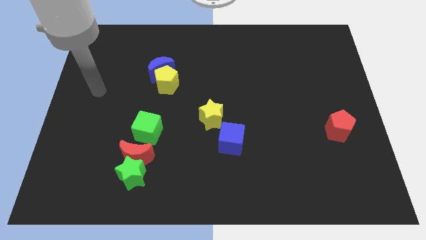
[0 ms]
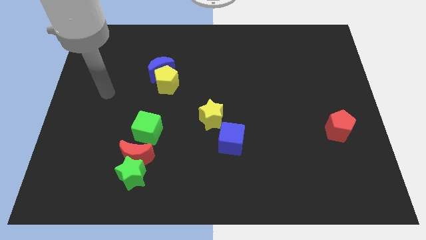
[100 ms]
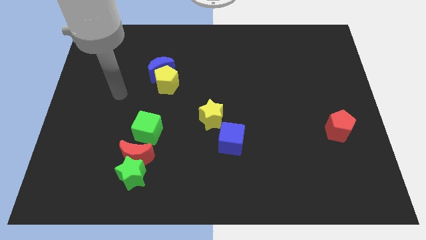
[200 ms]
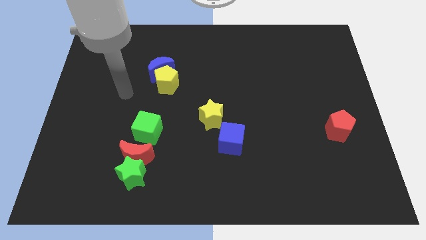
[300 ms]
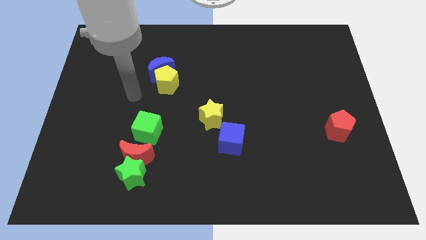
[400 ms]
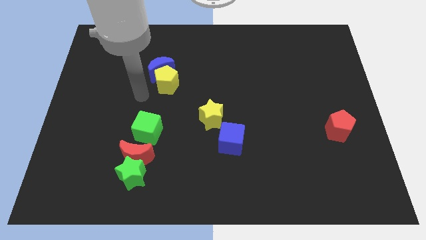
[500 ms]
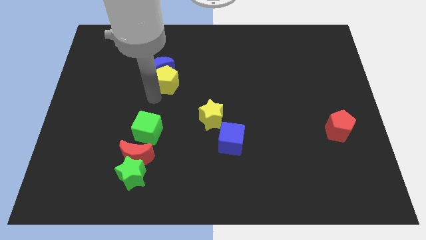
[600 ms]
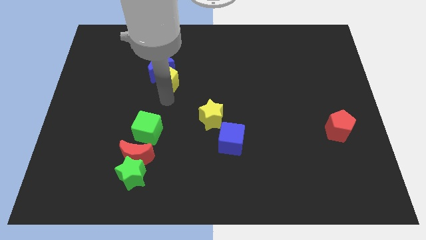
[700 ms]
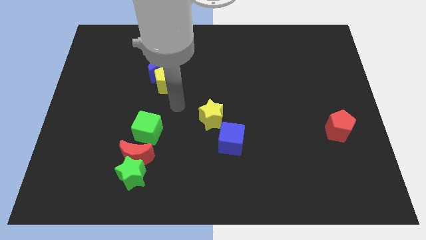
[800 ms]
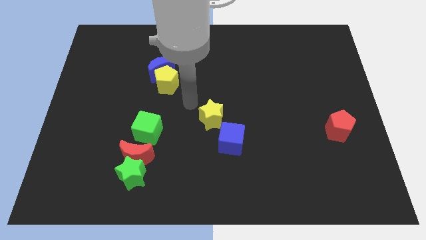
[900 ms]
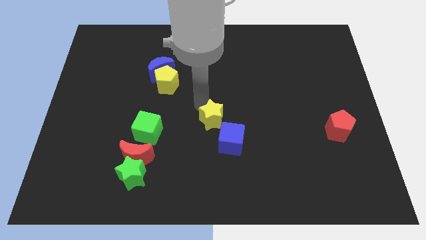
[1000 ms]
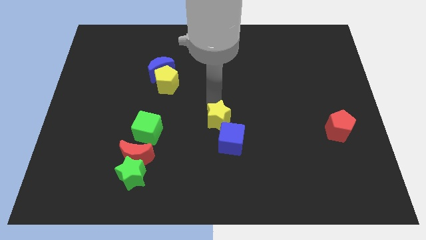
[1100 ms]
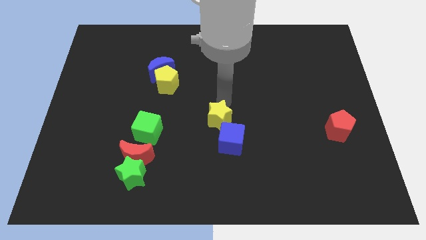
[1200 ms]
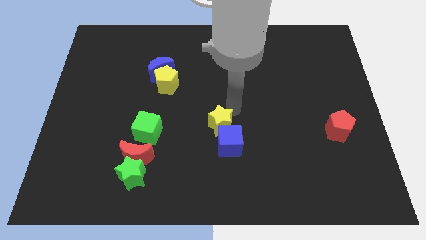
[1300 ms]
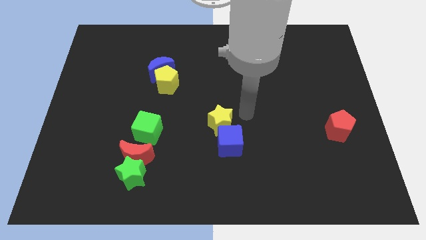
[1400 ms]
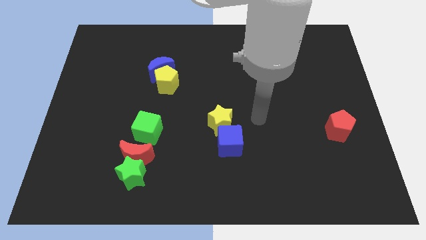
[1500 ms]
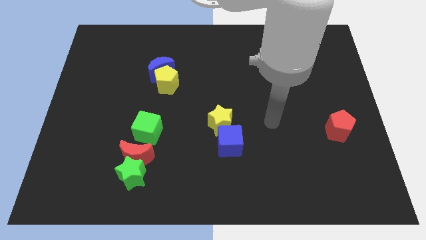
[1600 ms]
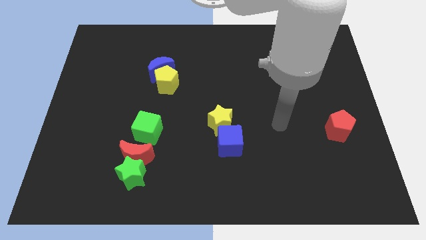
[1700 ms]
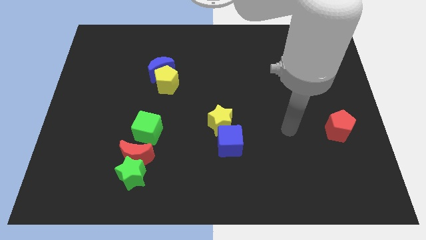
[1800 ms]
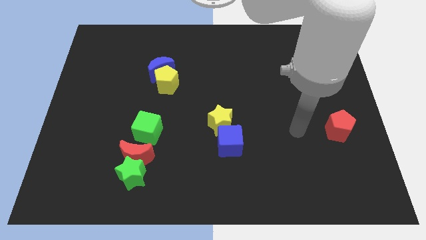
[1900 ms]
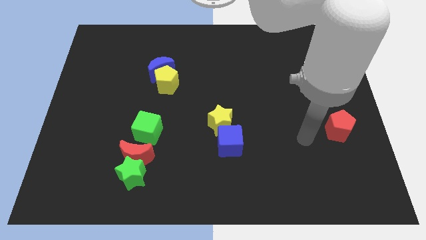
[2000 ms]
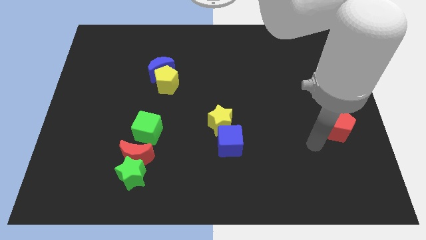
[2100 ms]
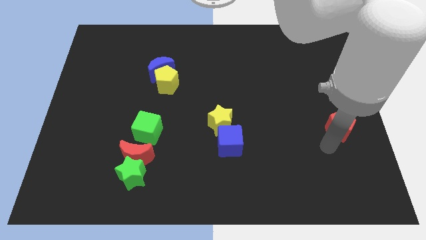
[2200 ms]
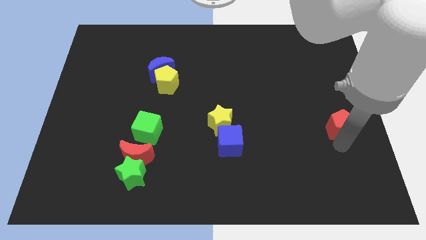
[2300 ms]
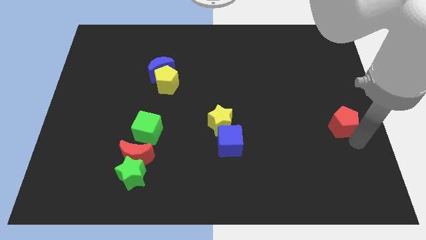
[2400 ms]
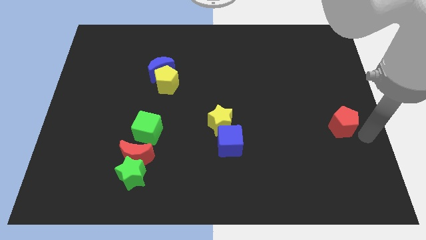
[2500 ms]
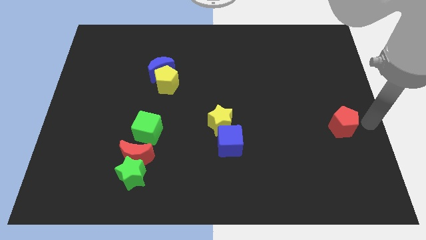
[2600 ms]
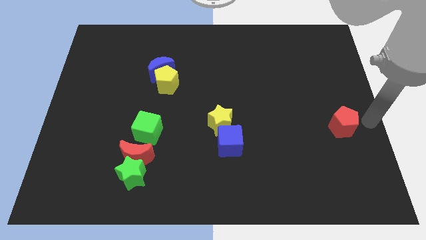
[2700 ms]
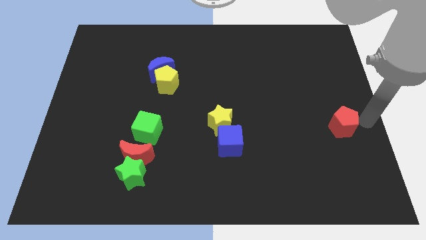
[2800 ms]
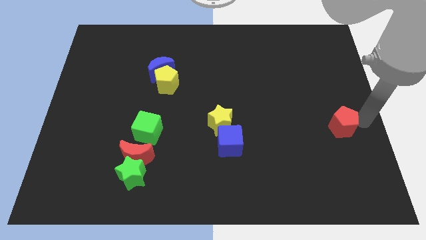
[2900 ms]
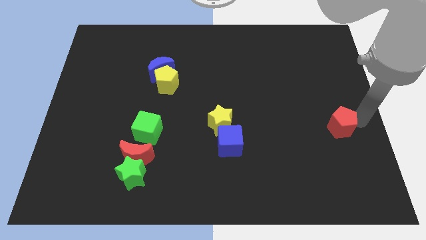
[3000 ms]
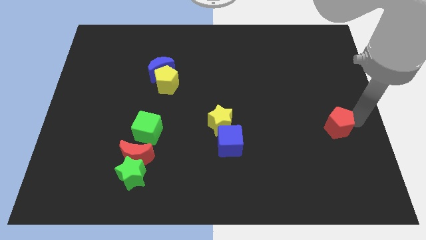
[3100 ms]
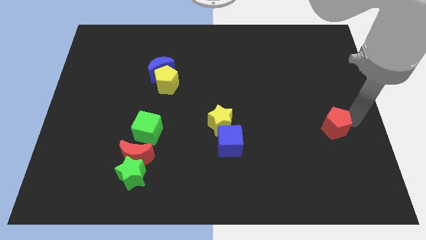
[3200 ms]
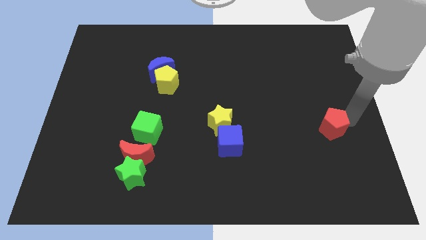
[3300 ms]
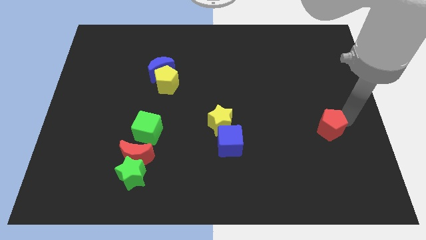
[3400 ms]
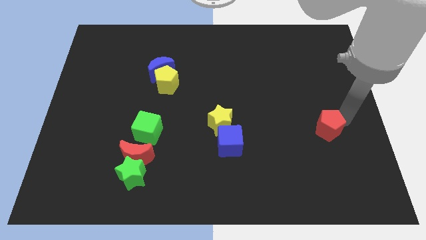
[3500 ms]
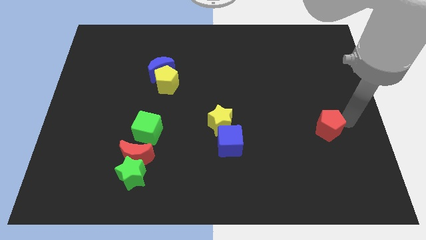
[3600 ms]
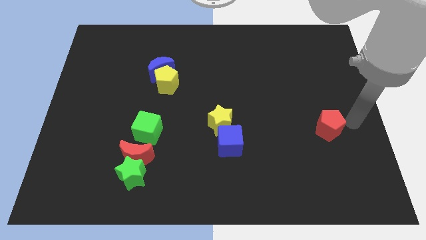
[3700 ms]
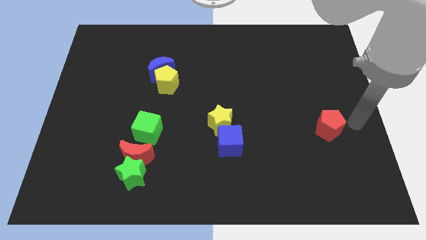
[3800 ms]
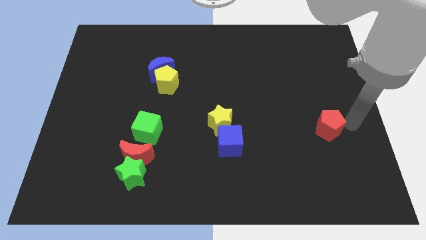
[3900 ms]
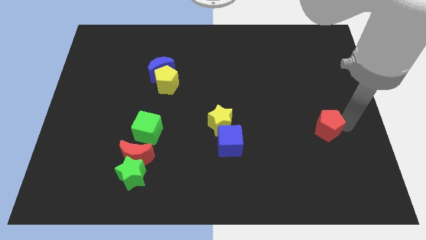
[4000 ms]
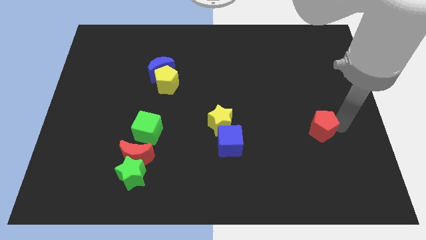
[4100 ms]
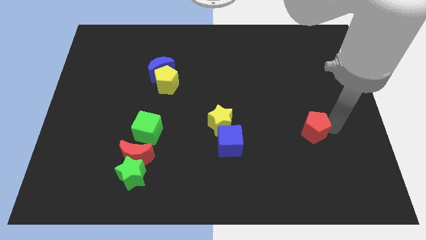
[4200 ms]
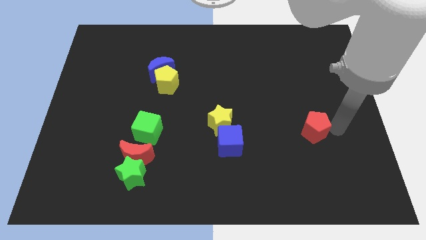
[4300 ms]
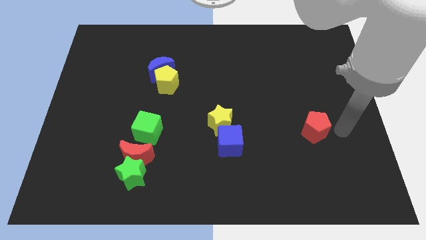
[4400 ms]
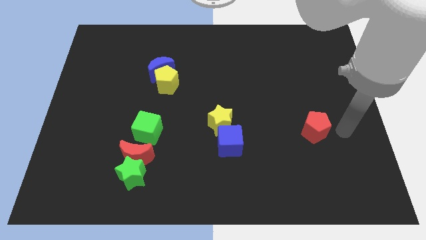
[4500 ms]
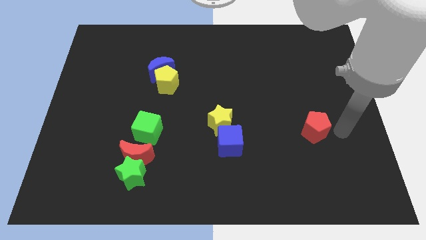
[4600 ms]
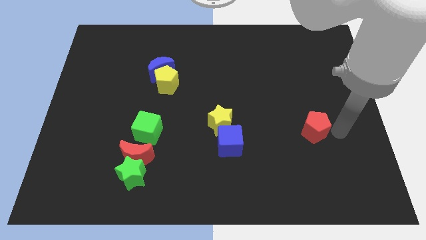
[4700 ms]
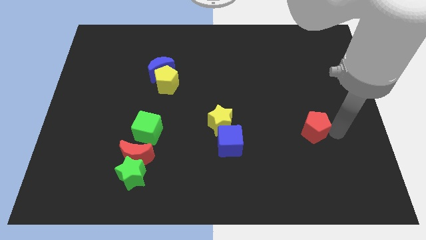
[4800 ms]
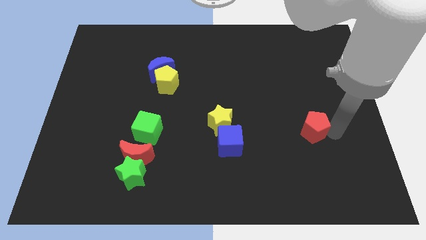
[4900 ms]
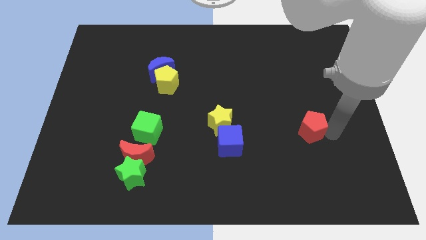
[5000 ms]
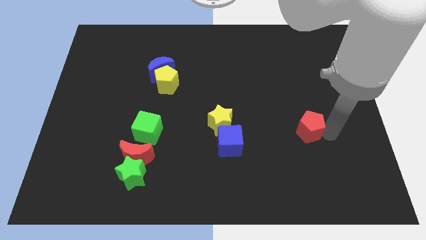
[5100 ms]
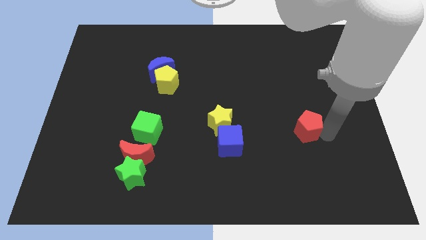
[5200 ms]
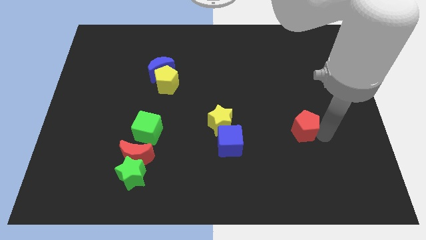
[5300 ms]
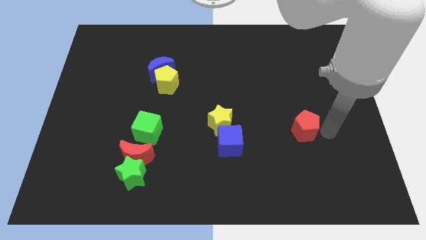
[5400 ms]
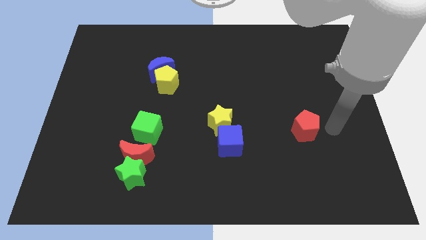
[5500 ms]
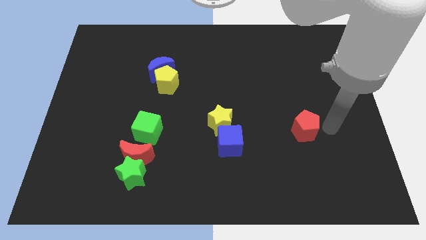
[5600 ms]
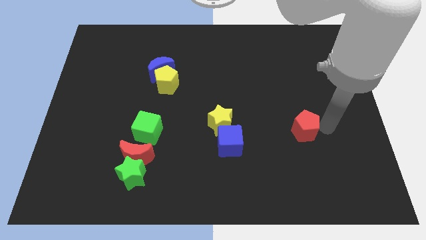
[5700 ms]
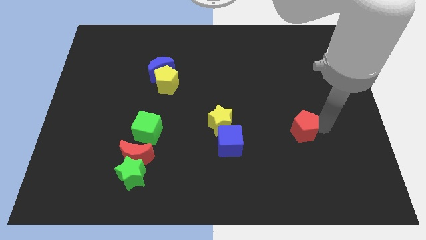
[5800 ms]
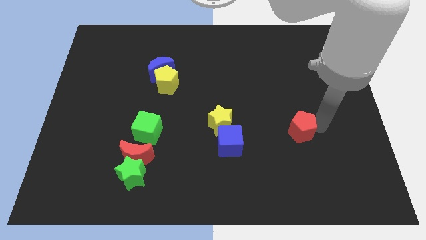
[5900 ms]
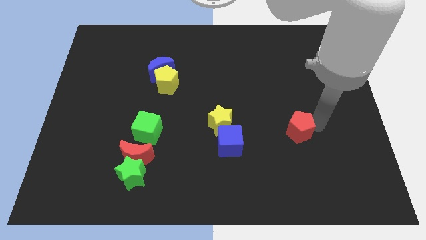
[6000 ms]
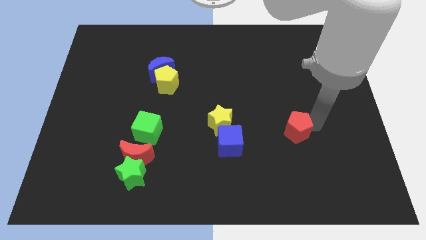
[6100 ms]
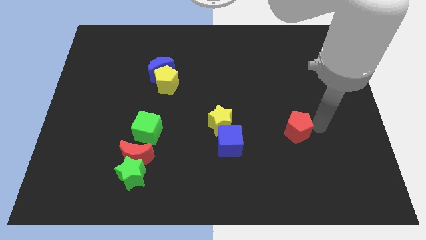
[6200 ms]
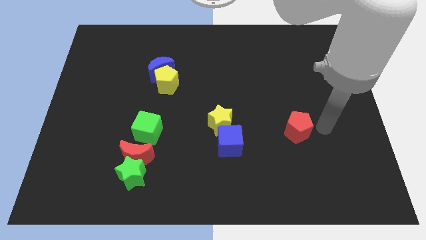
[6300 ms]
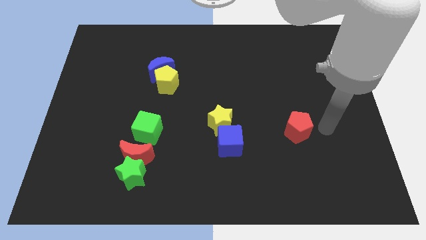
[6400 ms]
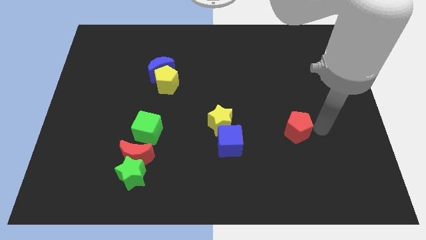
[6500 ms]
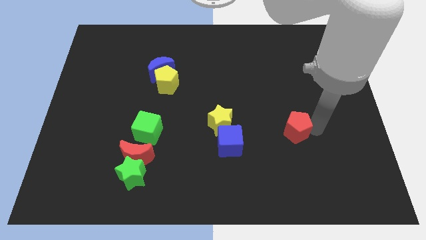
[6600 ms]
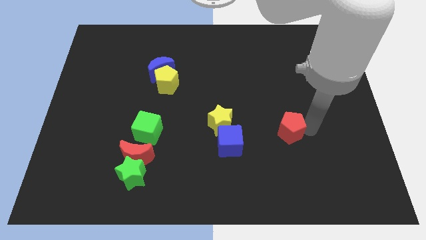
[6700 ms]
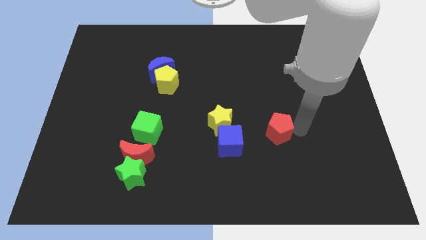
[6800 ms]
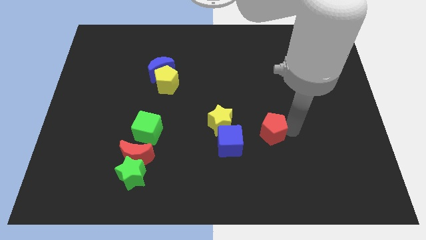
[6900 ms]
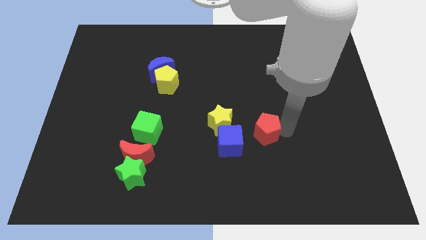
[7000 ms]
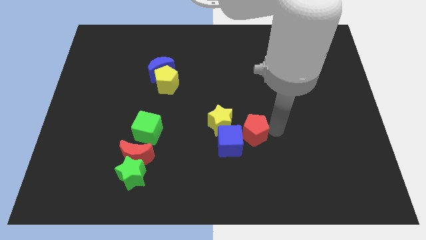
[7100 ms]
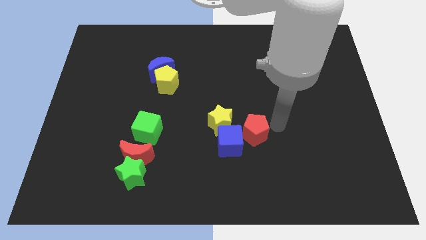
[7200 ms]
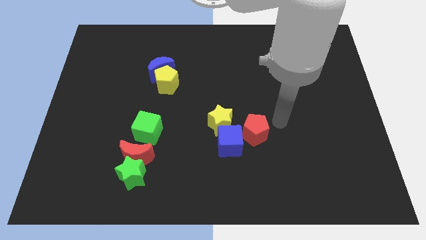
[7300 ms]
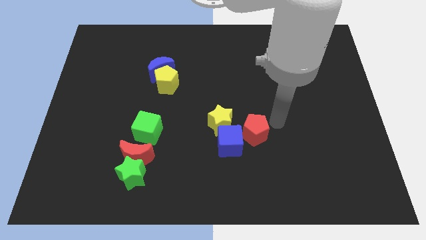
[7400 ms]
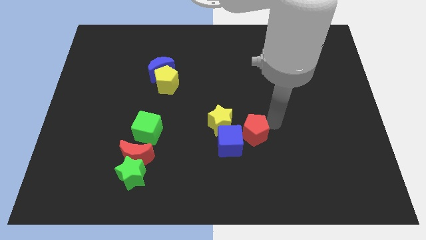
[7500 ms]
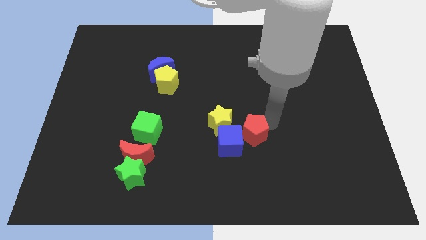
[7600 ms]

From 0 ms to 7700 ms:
slide the red pentagon towards the blue cube
